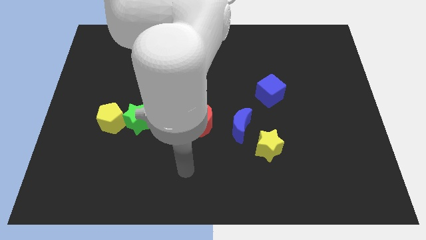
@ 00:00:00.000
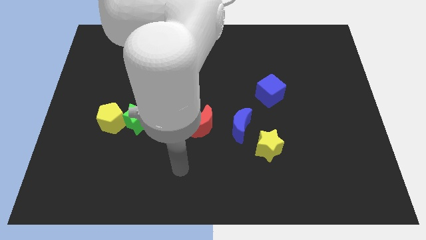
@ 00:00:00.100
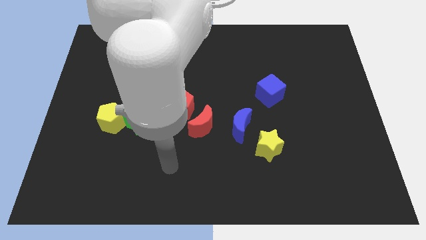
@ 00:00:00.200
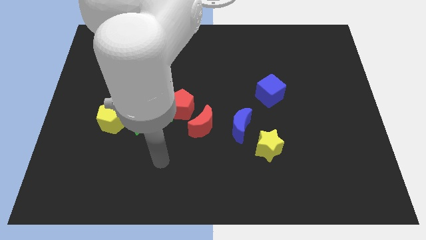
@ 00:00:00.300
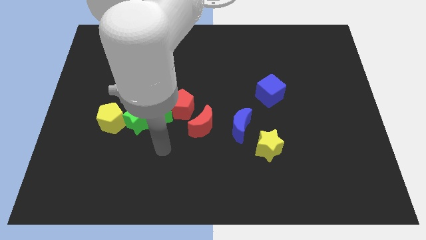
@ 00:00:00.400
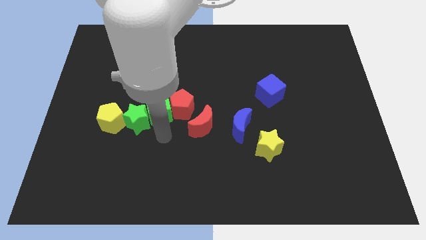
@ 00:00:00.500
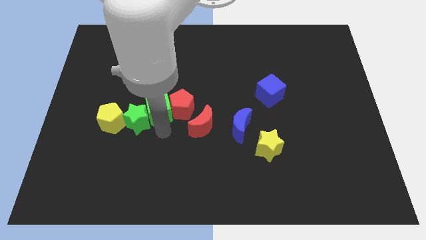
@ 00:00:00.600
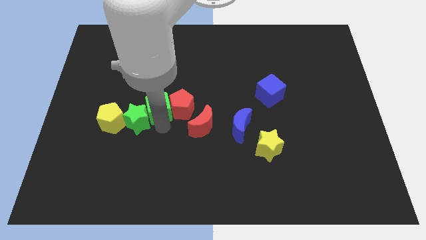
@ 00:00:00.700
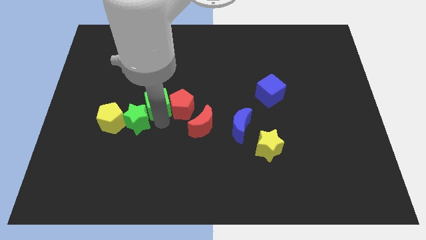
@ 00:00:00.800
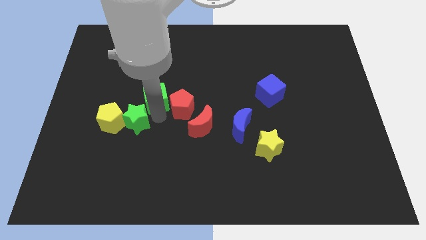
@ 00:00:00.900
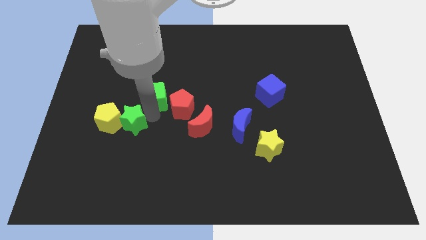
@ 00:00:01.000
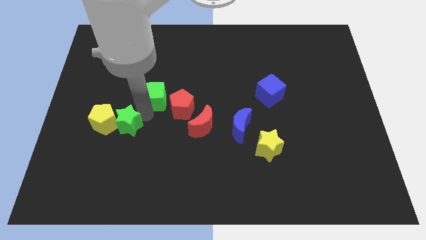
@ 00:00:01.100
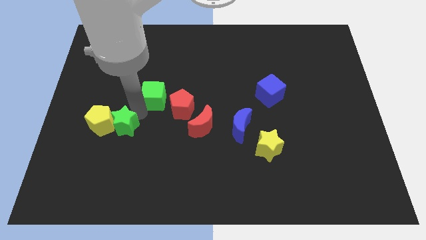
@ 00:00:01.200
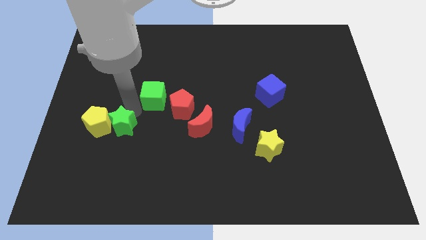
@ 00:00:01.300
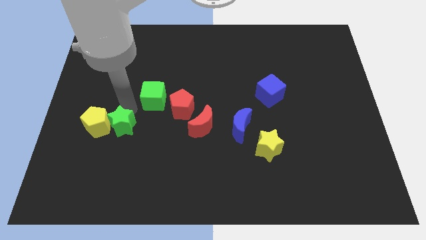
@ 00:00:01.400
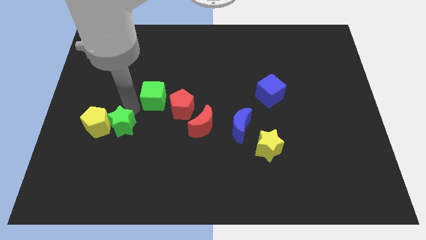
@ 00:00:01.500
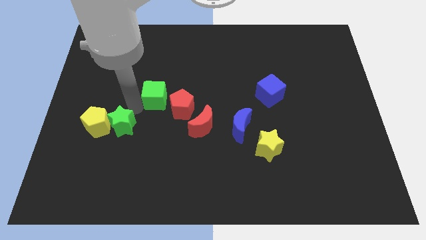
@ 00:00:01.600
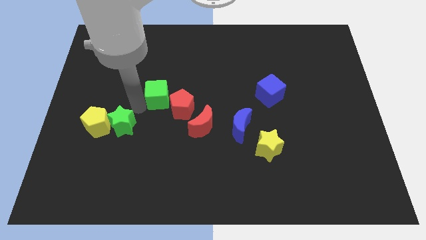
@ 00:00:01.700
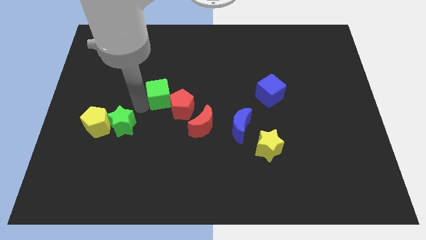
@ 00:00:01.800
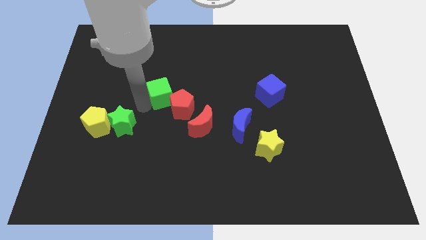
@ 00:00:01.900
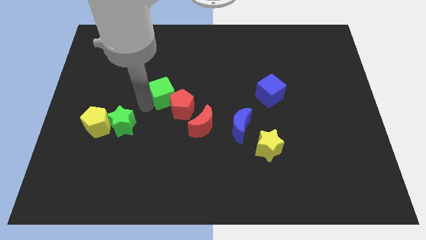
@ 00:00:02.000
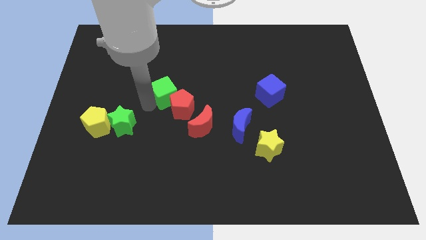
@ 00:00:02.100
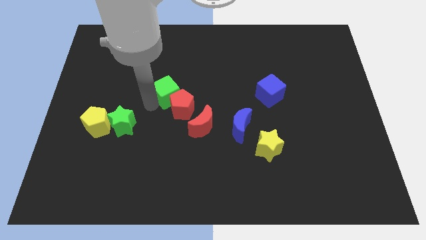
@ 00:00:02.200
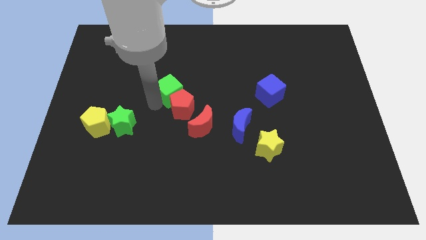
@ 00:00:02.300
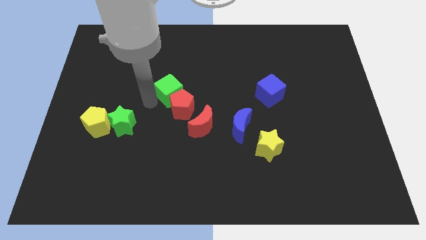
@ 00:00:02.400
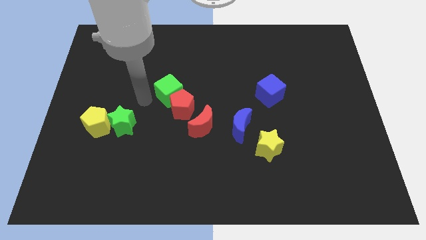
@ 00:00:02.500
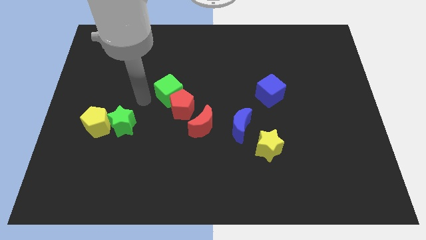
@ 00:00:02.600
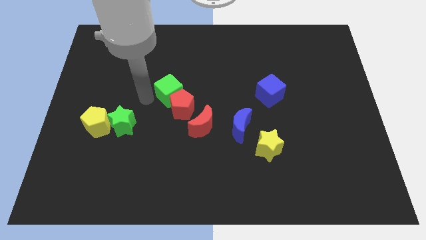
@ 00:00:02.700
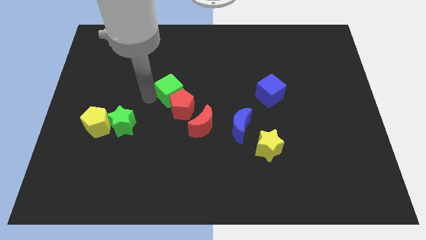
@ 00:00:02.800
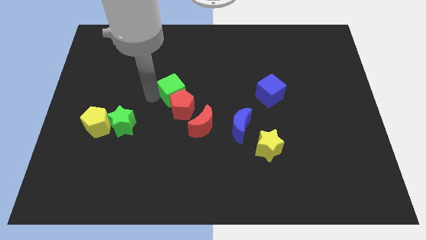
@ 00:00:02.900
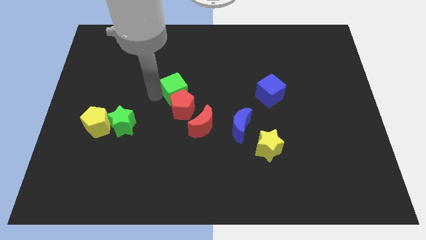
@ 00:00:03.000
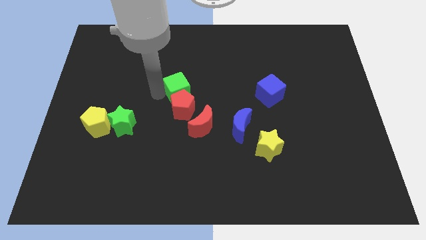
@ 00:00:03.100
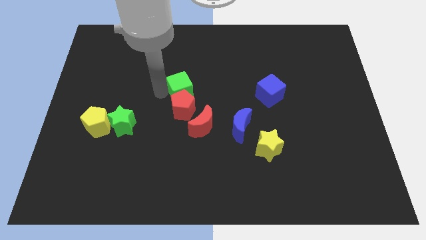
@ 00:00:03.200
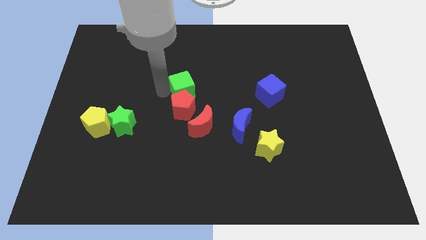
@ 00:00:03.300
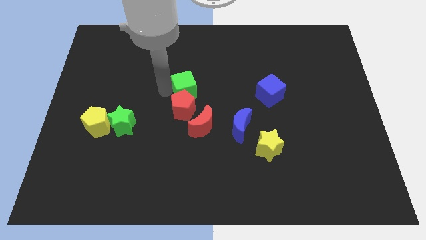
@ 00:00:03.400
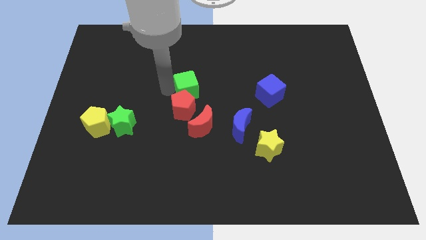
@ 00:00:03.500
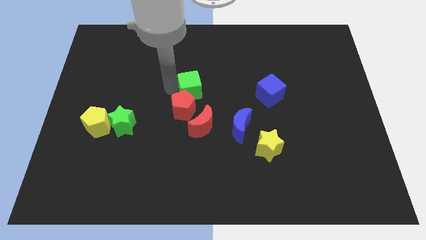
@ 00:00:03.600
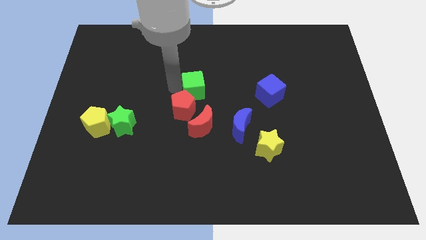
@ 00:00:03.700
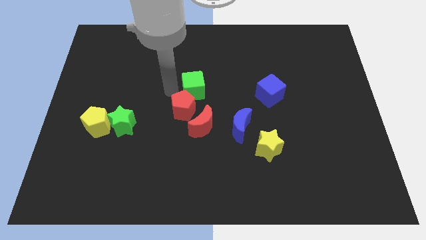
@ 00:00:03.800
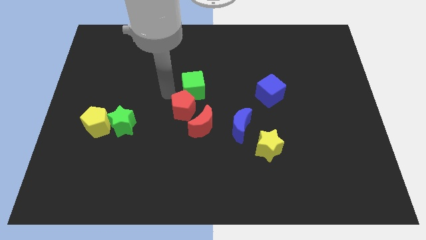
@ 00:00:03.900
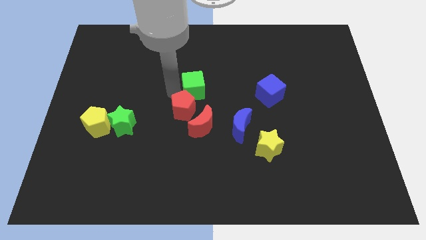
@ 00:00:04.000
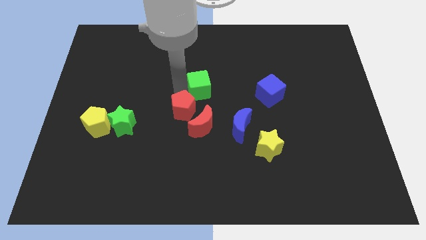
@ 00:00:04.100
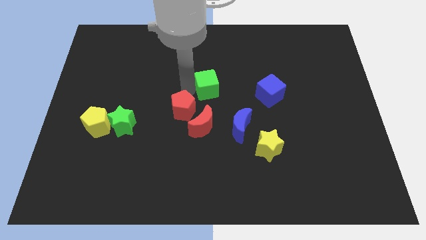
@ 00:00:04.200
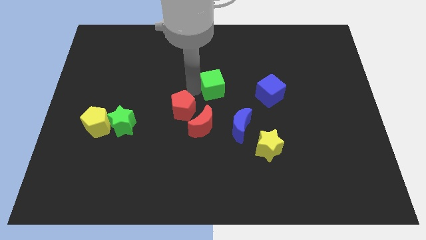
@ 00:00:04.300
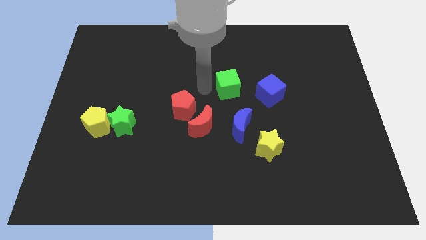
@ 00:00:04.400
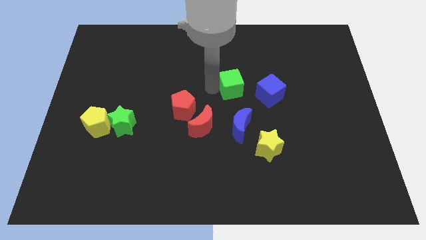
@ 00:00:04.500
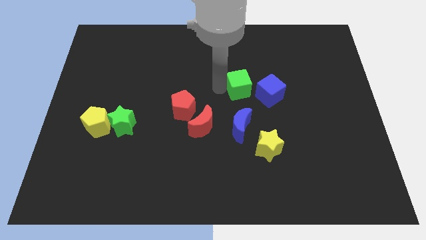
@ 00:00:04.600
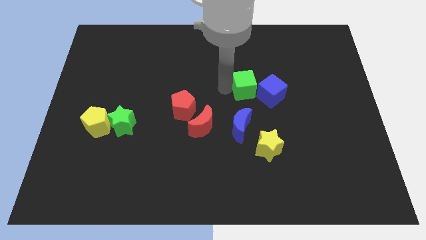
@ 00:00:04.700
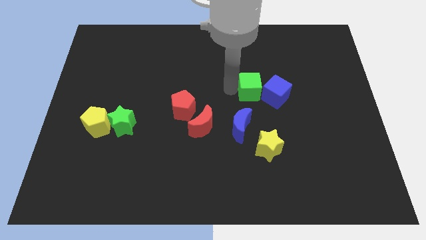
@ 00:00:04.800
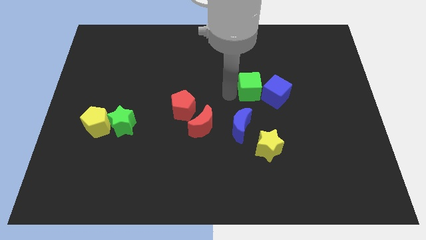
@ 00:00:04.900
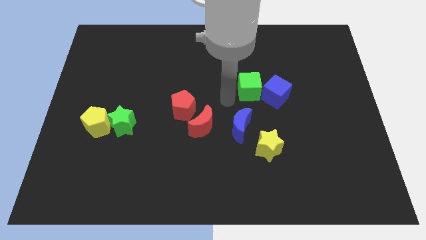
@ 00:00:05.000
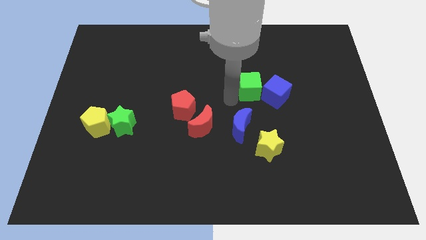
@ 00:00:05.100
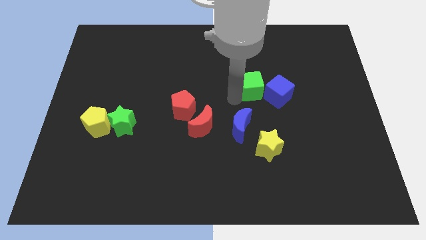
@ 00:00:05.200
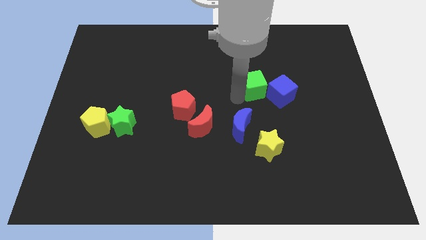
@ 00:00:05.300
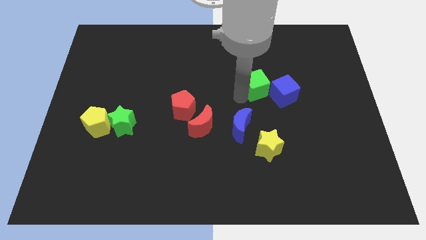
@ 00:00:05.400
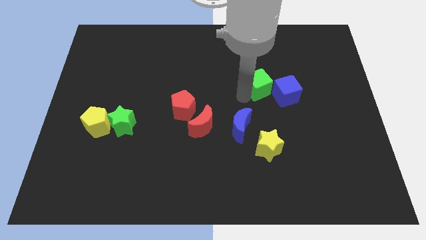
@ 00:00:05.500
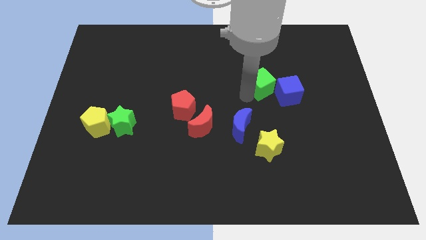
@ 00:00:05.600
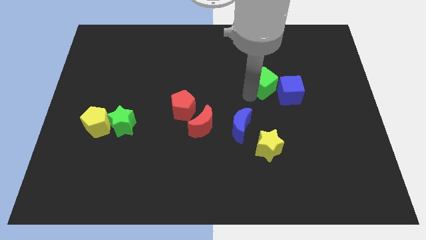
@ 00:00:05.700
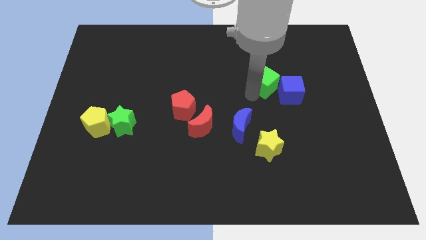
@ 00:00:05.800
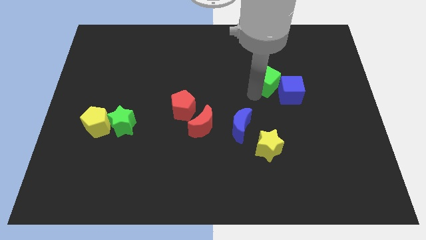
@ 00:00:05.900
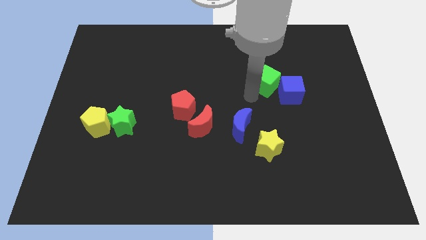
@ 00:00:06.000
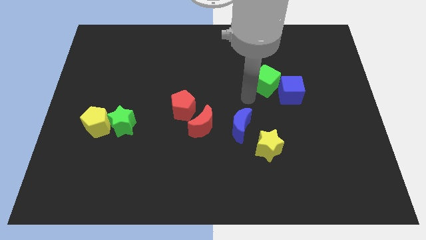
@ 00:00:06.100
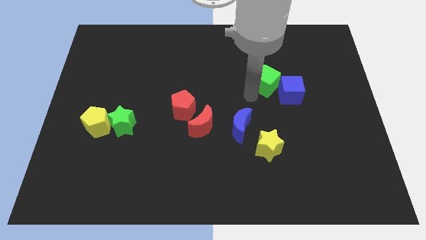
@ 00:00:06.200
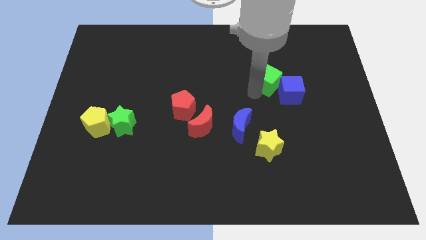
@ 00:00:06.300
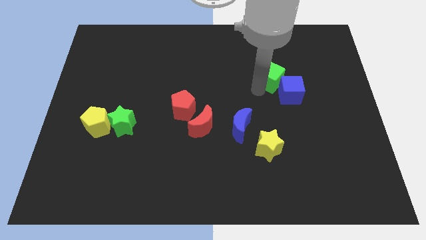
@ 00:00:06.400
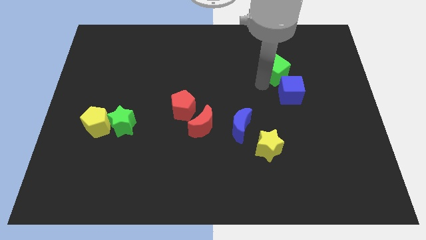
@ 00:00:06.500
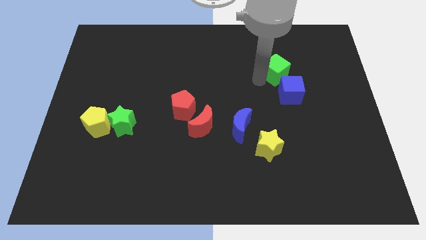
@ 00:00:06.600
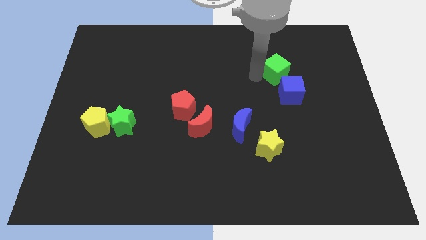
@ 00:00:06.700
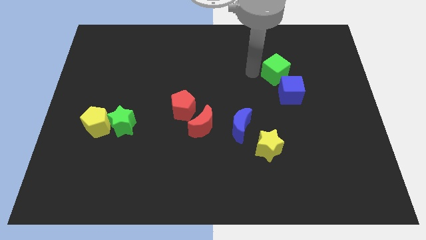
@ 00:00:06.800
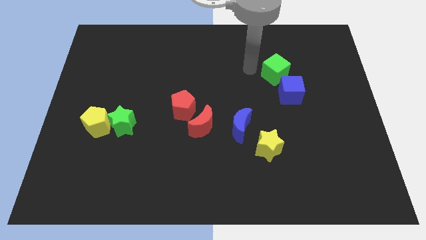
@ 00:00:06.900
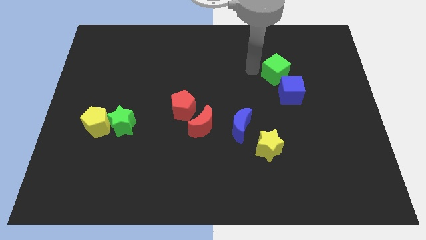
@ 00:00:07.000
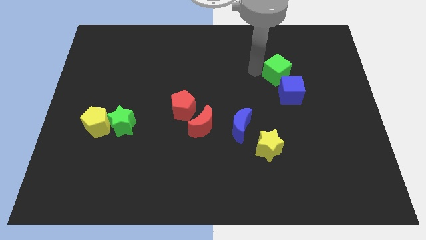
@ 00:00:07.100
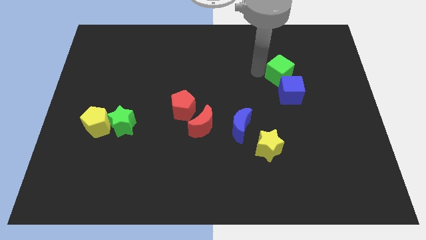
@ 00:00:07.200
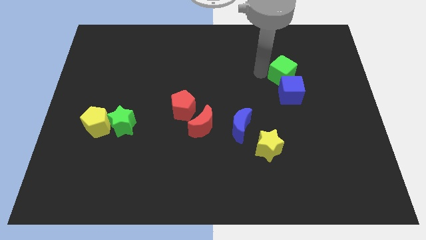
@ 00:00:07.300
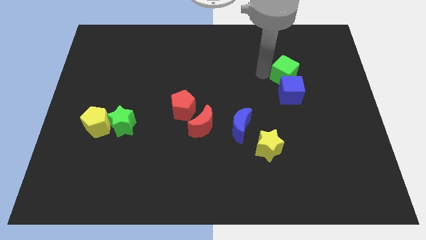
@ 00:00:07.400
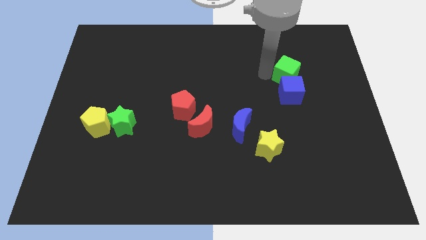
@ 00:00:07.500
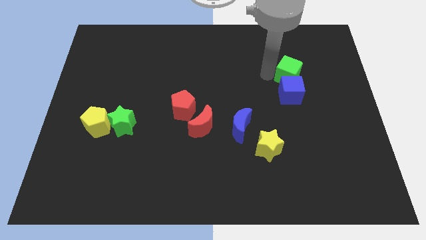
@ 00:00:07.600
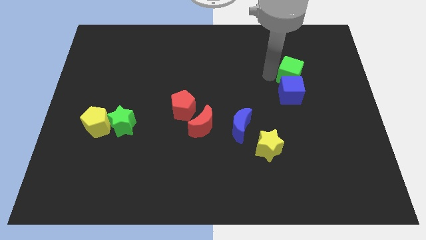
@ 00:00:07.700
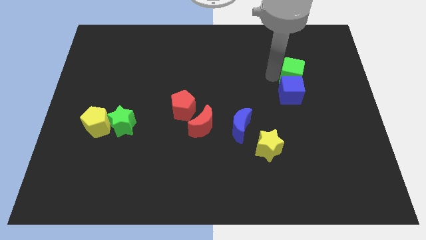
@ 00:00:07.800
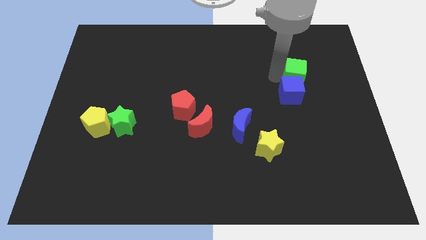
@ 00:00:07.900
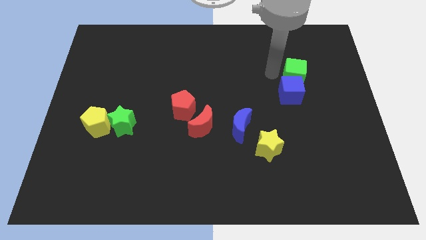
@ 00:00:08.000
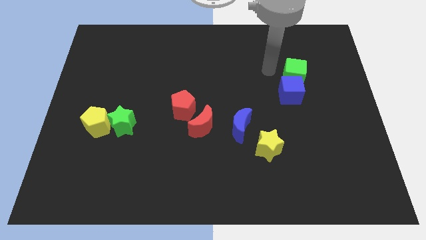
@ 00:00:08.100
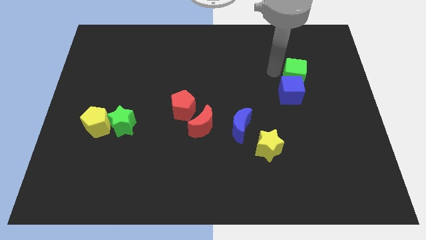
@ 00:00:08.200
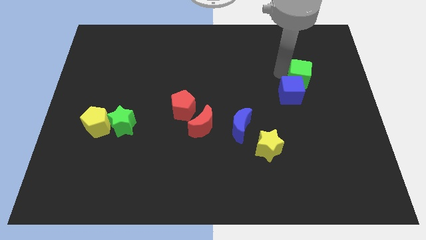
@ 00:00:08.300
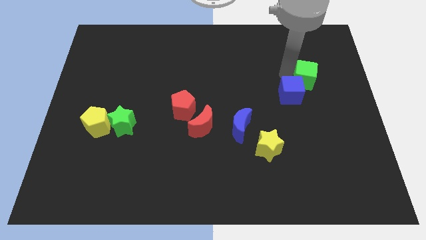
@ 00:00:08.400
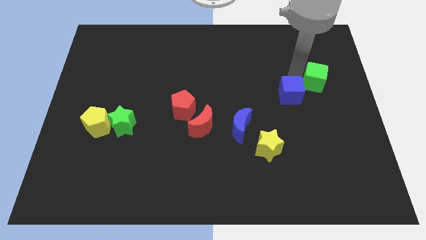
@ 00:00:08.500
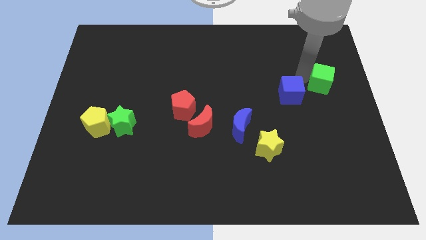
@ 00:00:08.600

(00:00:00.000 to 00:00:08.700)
push the green cube to the right side of the board
